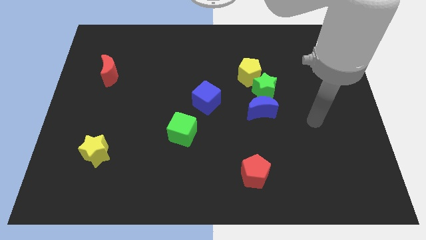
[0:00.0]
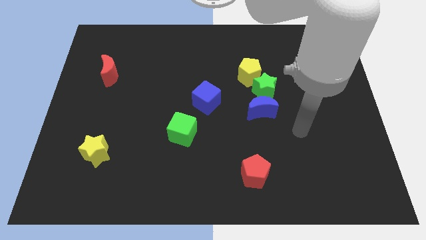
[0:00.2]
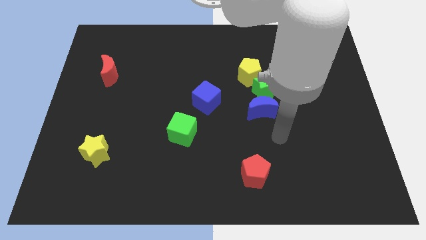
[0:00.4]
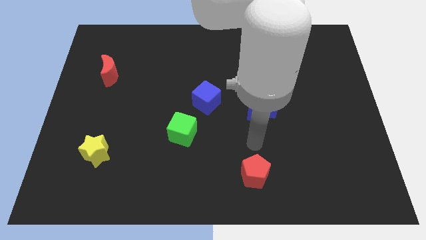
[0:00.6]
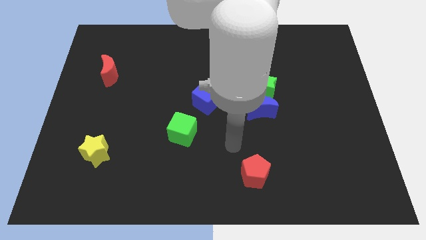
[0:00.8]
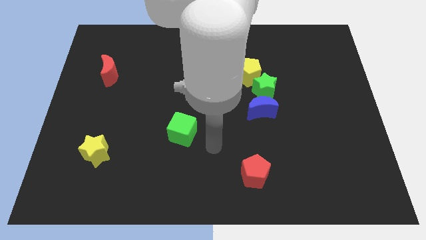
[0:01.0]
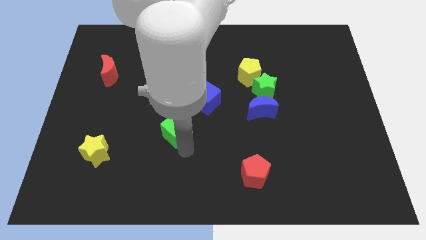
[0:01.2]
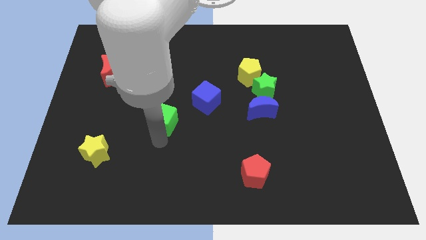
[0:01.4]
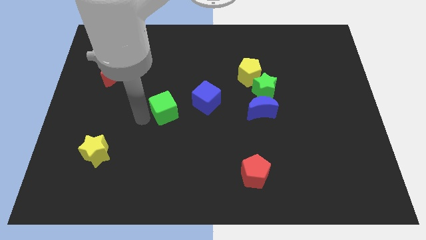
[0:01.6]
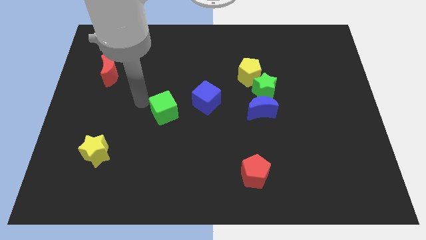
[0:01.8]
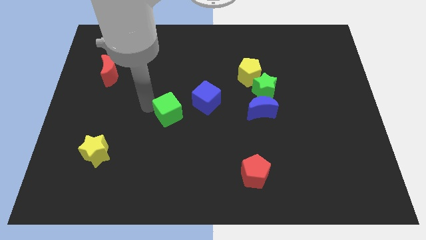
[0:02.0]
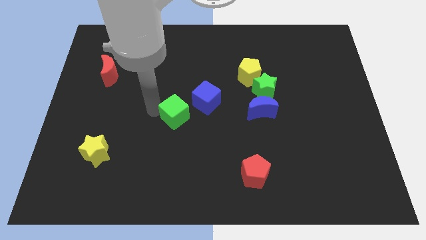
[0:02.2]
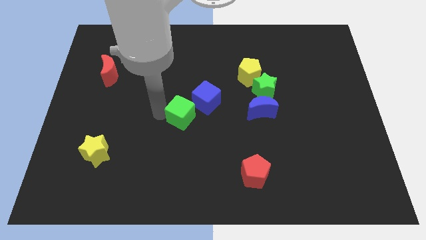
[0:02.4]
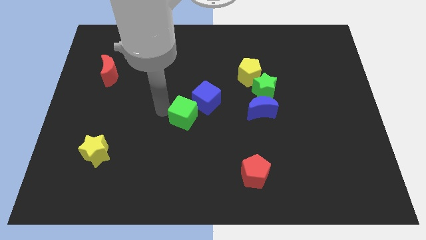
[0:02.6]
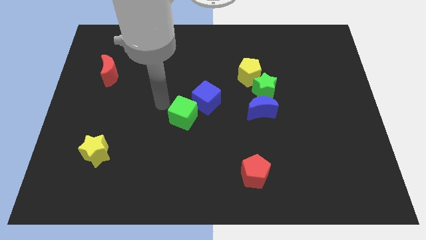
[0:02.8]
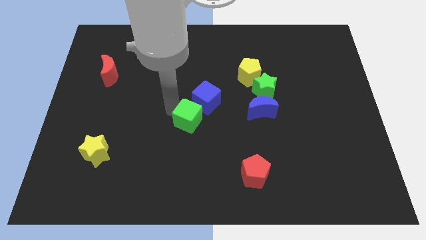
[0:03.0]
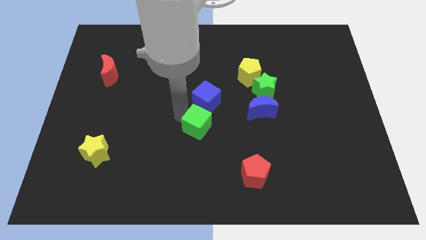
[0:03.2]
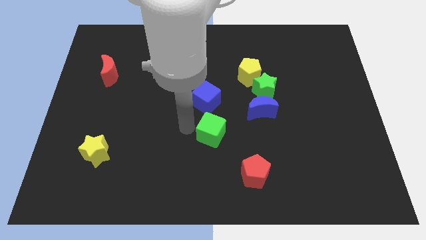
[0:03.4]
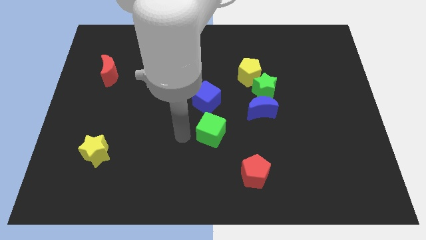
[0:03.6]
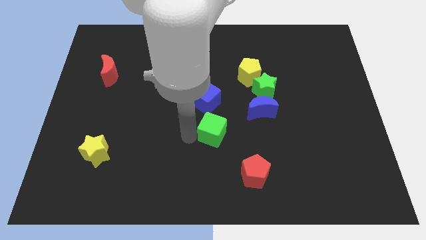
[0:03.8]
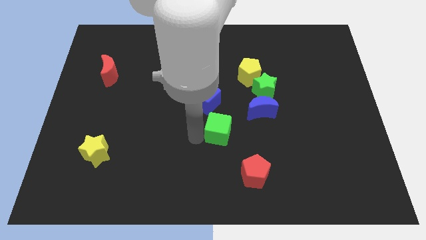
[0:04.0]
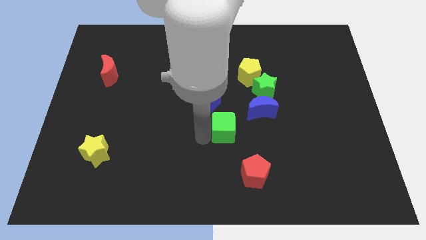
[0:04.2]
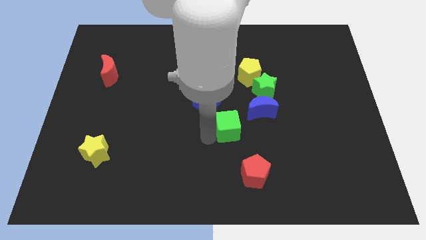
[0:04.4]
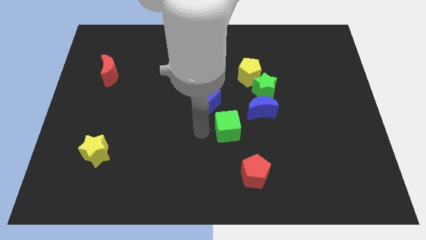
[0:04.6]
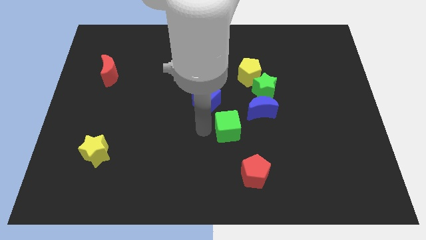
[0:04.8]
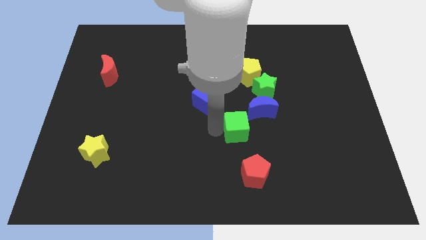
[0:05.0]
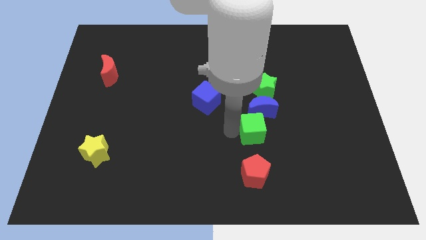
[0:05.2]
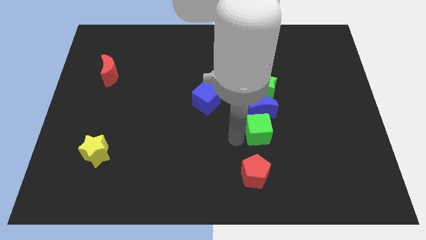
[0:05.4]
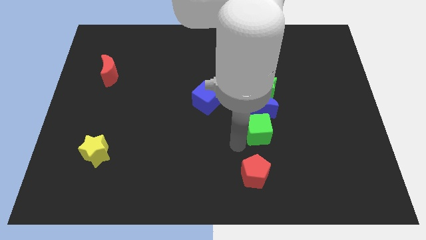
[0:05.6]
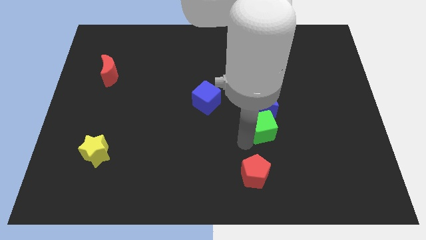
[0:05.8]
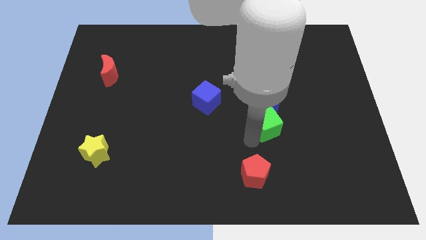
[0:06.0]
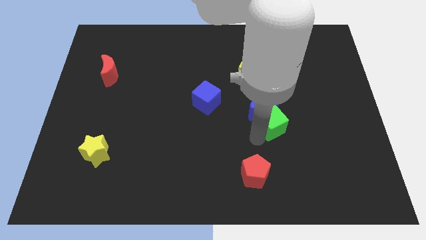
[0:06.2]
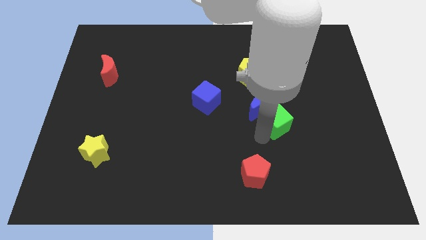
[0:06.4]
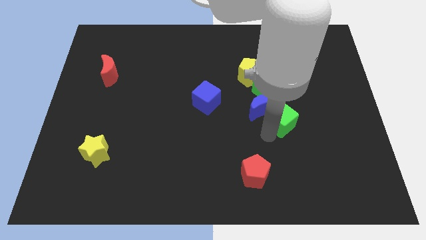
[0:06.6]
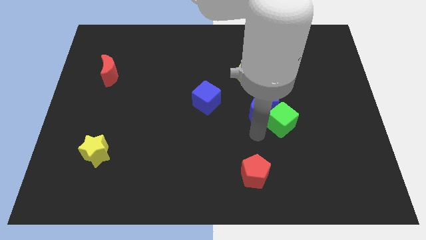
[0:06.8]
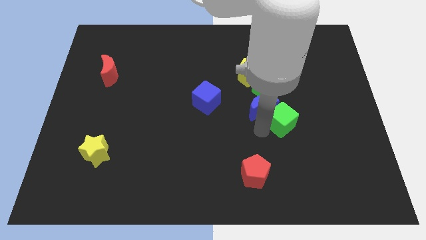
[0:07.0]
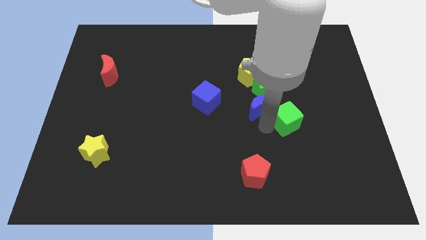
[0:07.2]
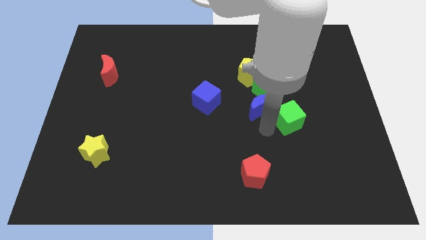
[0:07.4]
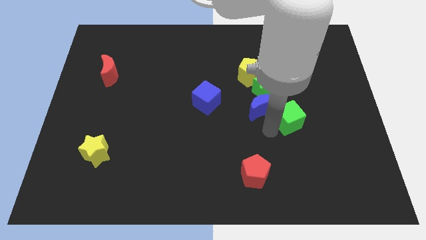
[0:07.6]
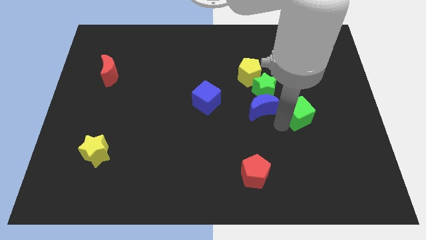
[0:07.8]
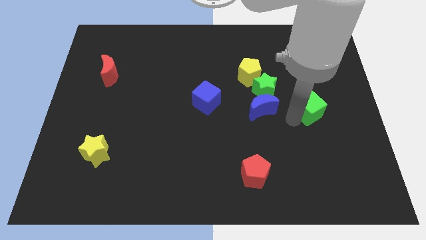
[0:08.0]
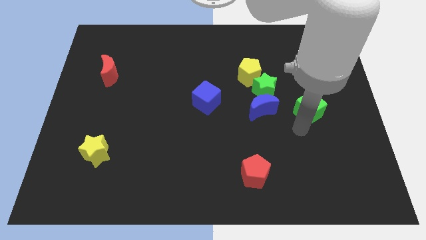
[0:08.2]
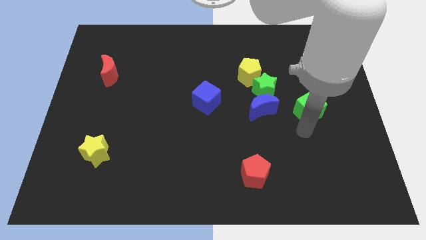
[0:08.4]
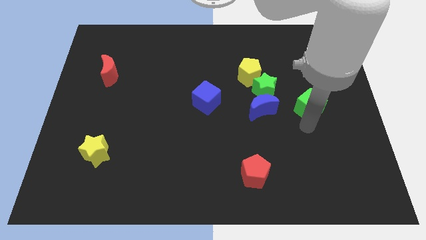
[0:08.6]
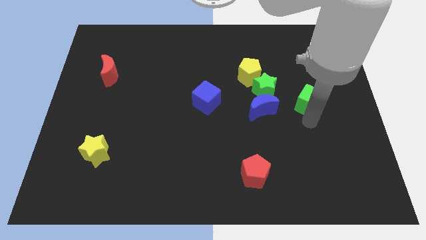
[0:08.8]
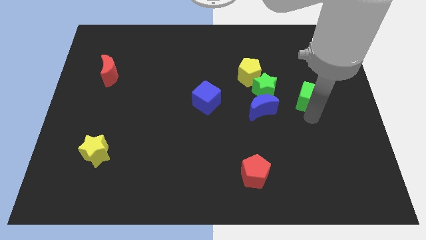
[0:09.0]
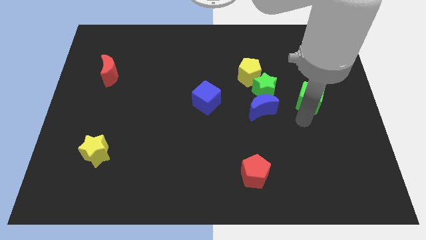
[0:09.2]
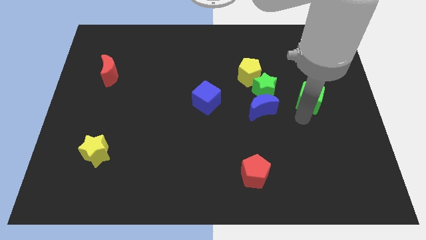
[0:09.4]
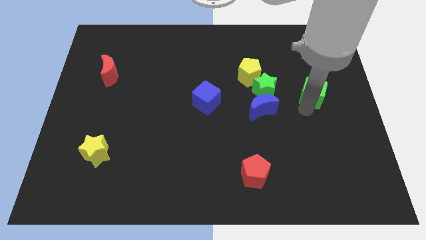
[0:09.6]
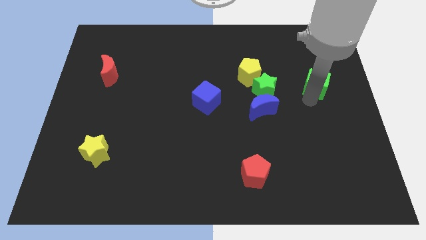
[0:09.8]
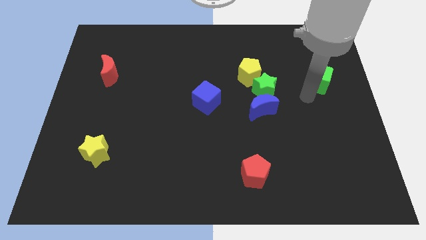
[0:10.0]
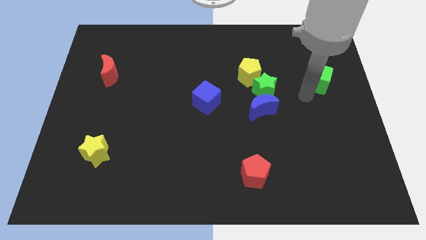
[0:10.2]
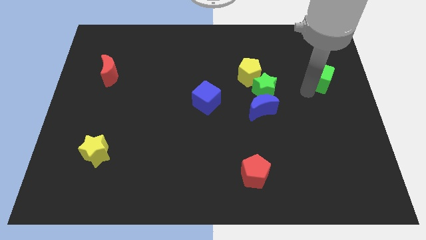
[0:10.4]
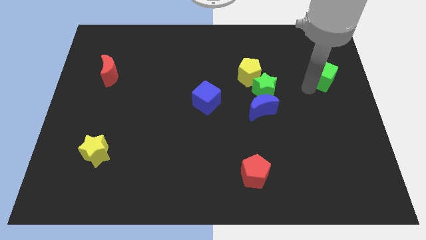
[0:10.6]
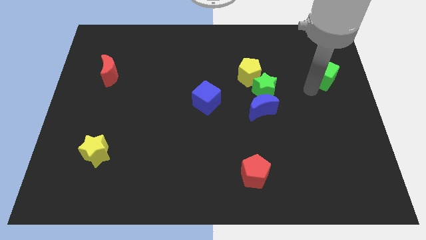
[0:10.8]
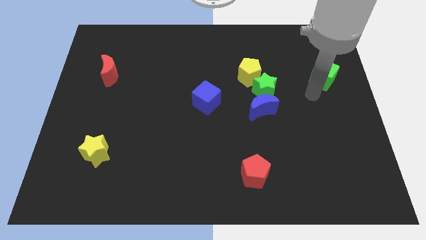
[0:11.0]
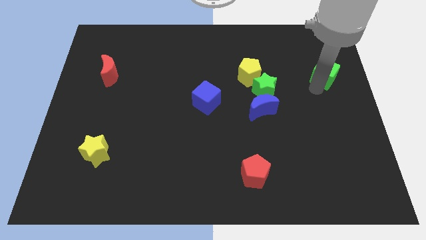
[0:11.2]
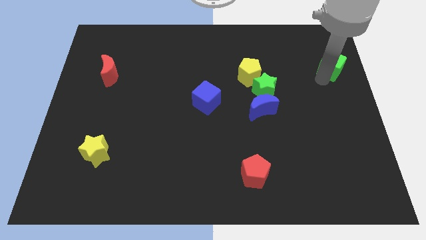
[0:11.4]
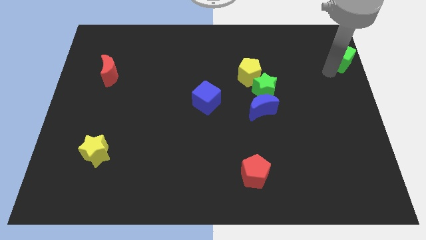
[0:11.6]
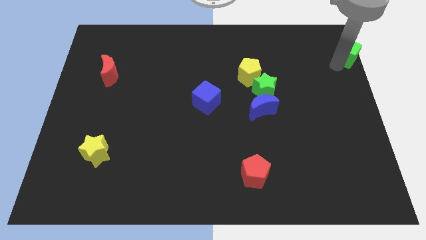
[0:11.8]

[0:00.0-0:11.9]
push the green cube to the upper right corner
